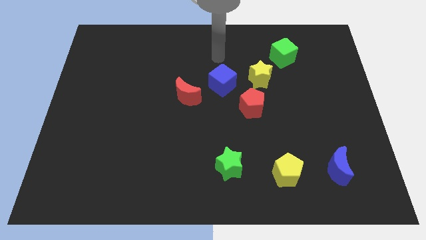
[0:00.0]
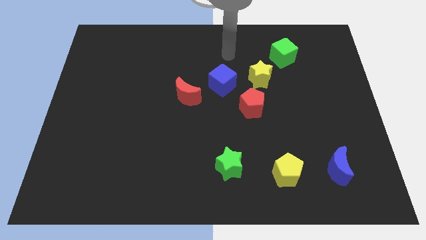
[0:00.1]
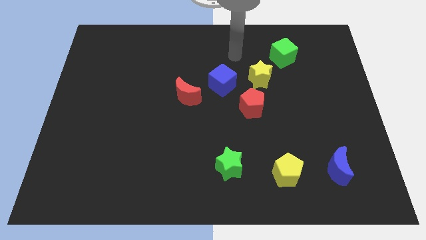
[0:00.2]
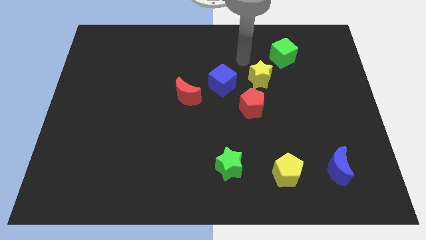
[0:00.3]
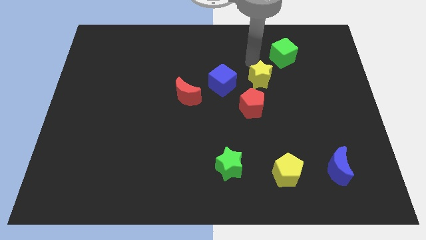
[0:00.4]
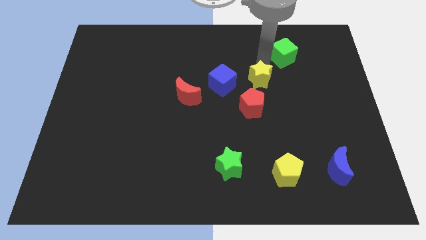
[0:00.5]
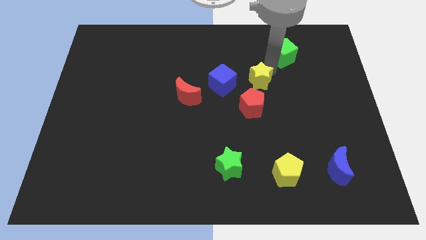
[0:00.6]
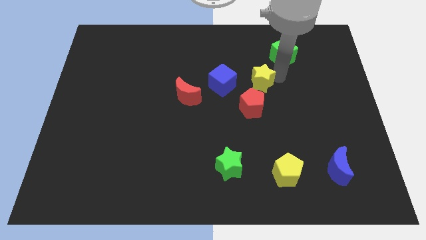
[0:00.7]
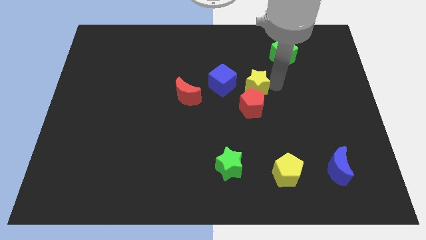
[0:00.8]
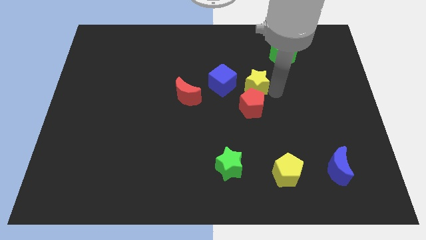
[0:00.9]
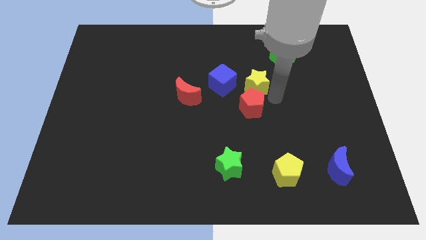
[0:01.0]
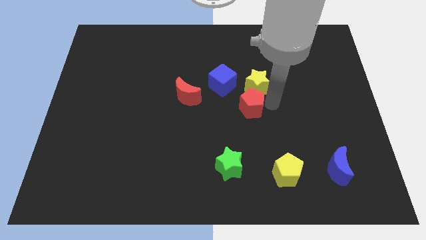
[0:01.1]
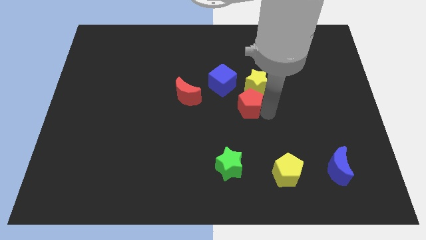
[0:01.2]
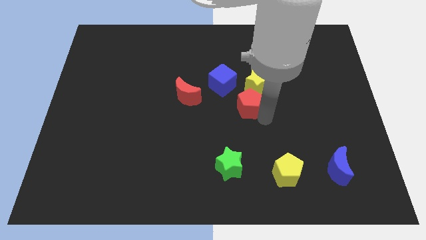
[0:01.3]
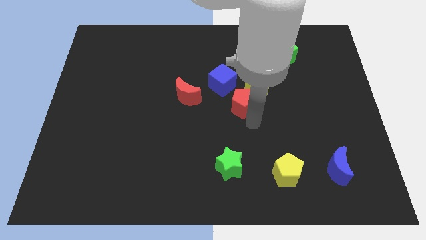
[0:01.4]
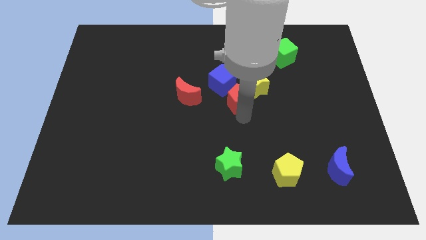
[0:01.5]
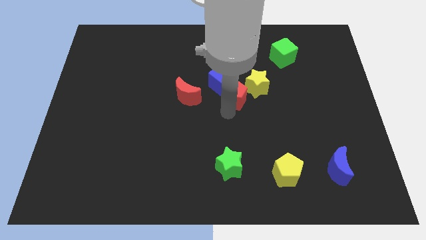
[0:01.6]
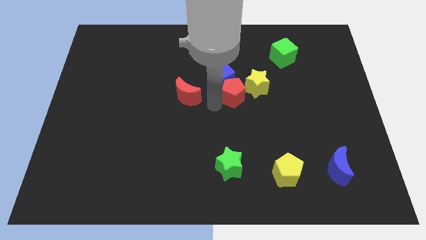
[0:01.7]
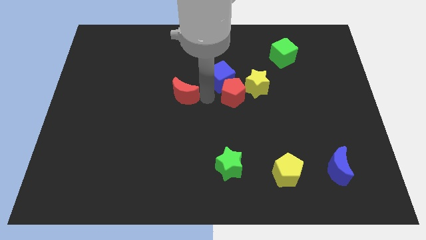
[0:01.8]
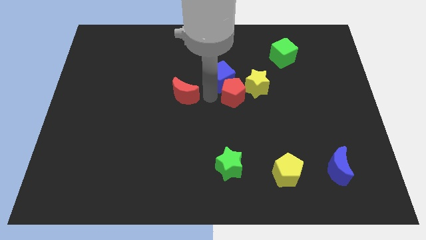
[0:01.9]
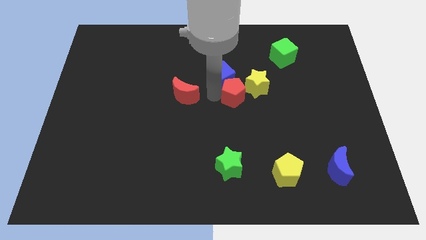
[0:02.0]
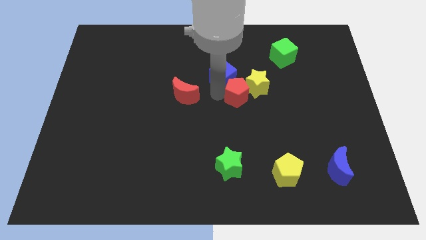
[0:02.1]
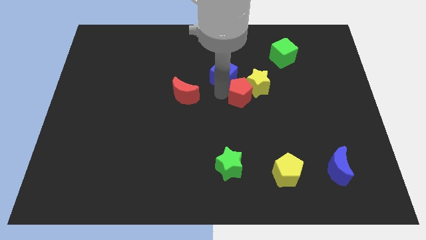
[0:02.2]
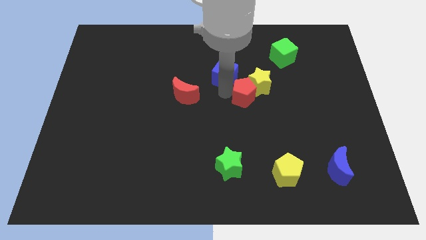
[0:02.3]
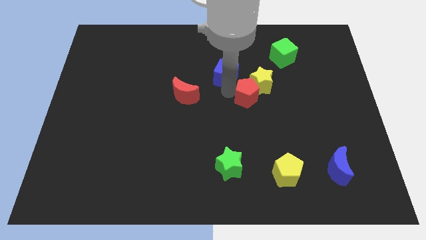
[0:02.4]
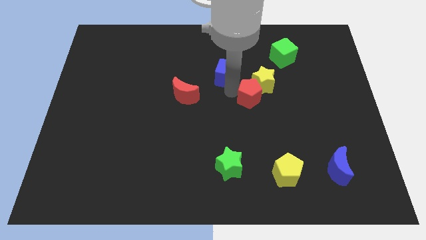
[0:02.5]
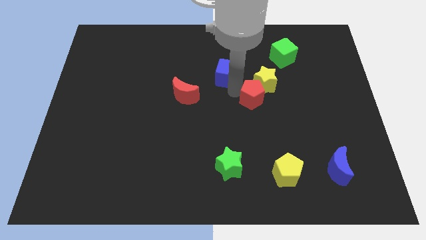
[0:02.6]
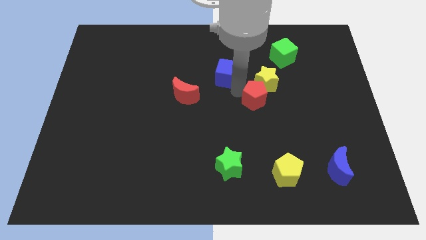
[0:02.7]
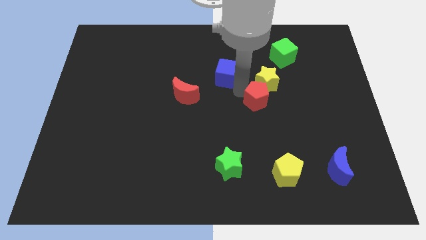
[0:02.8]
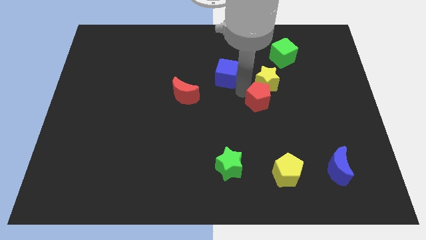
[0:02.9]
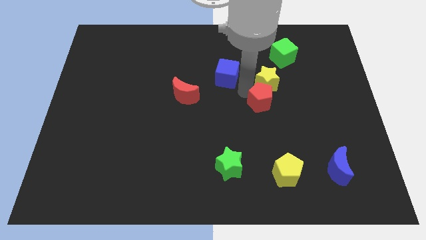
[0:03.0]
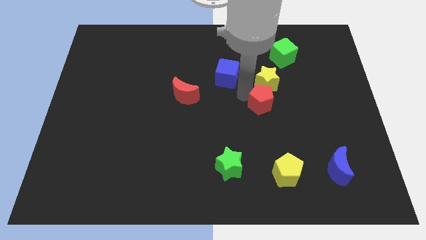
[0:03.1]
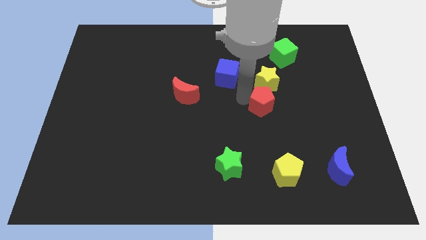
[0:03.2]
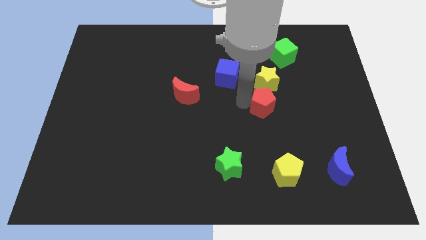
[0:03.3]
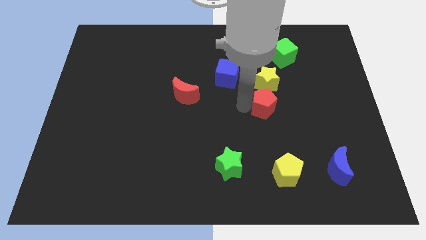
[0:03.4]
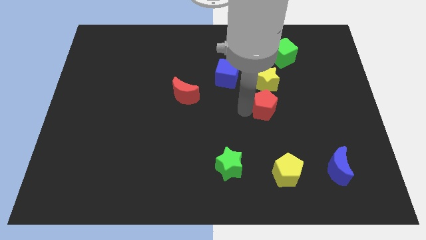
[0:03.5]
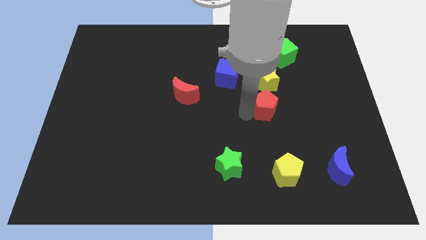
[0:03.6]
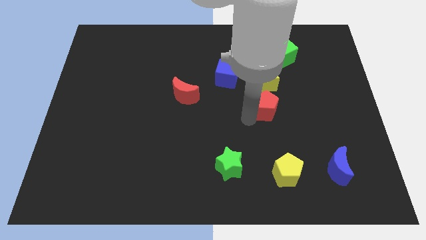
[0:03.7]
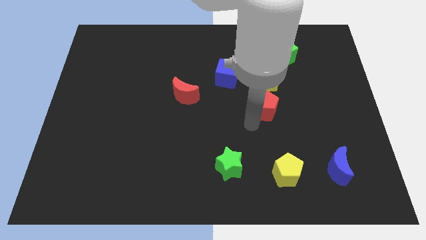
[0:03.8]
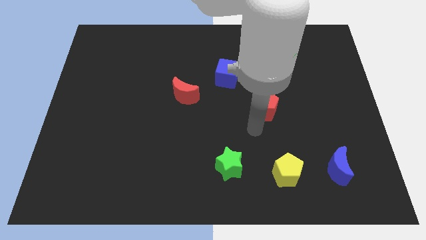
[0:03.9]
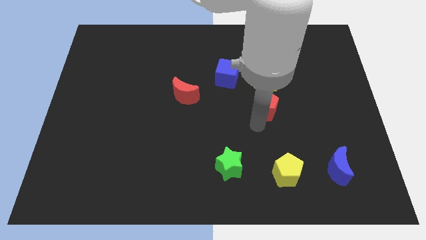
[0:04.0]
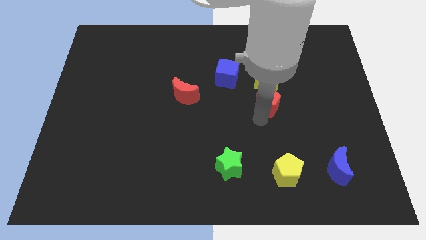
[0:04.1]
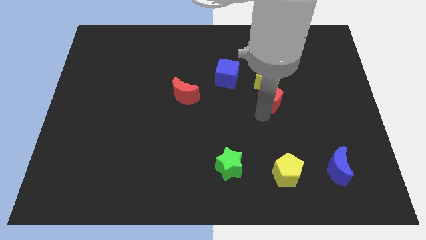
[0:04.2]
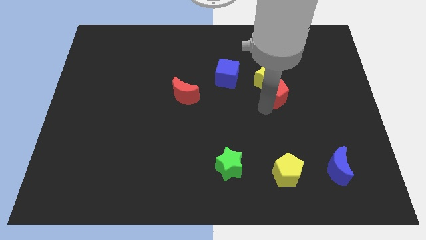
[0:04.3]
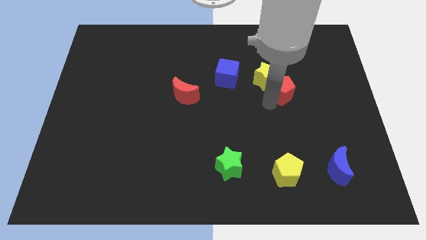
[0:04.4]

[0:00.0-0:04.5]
move the red pentagon up and to the right a bit

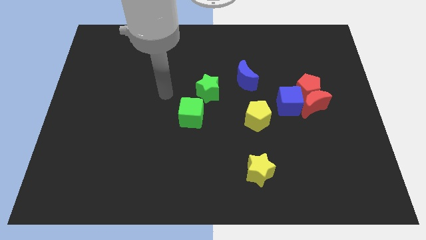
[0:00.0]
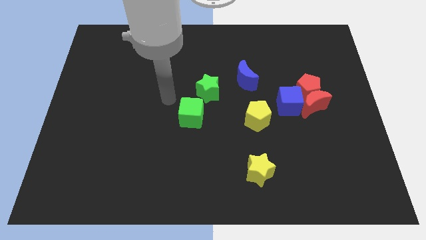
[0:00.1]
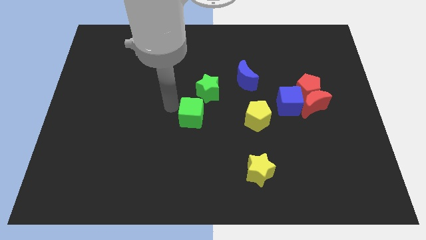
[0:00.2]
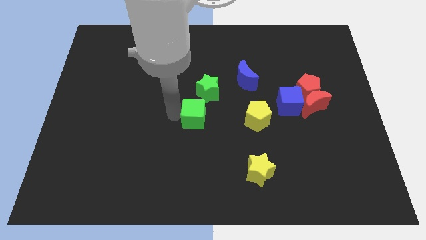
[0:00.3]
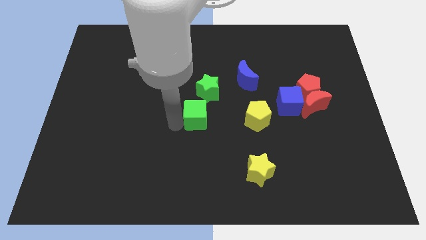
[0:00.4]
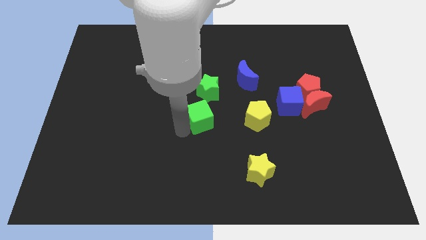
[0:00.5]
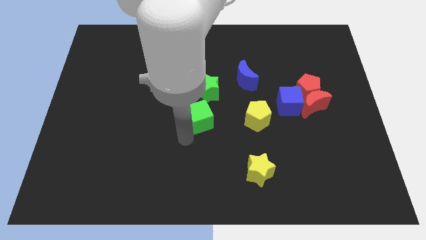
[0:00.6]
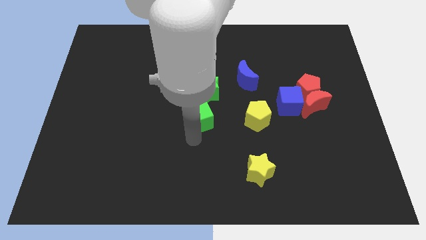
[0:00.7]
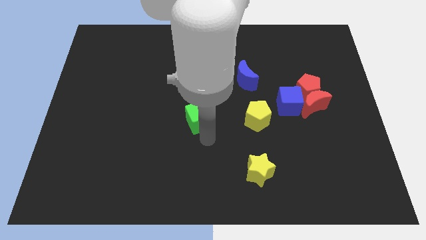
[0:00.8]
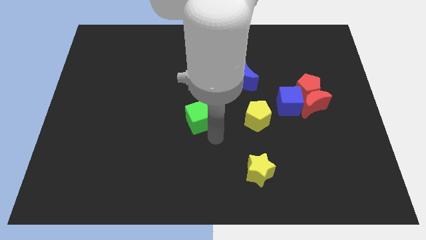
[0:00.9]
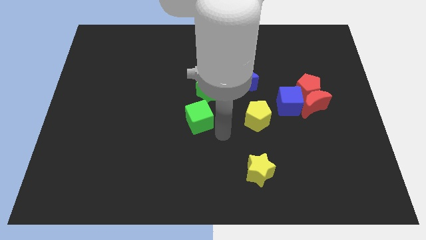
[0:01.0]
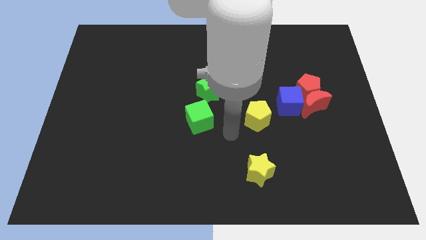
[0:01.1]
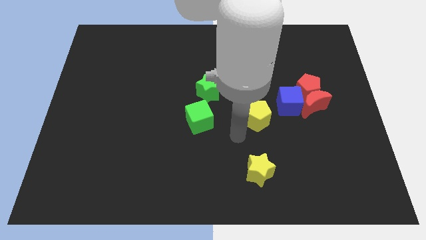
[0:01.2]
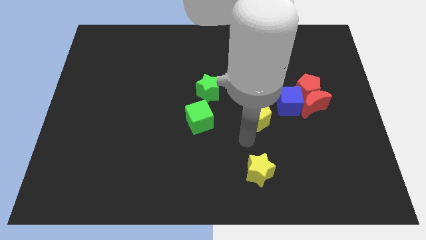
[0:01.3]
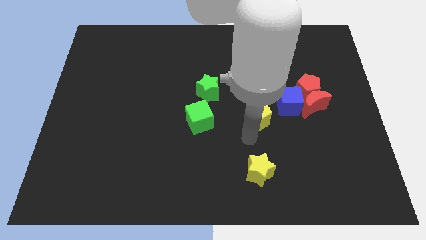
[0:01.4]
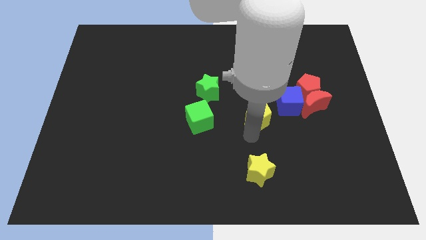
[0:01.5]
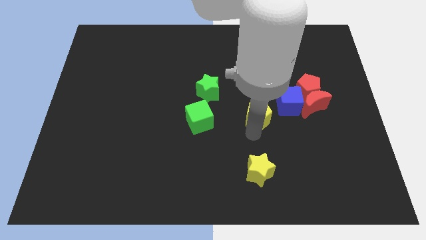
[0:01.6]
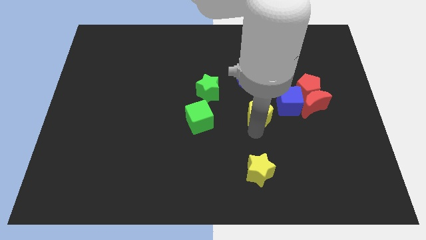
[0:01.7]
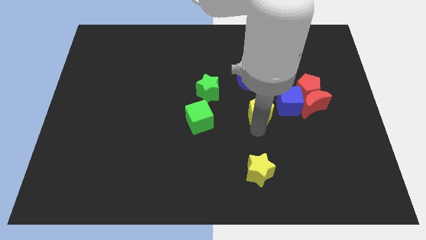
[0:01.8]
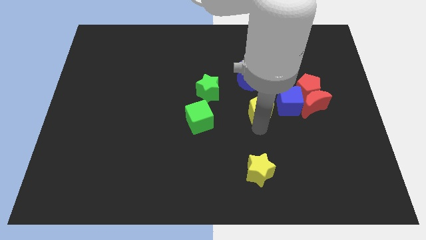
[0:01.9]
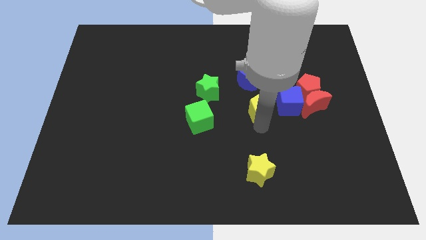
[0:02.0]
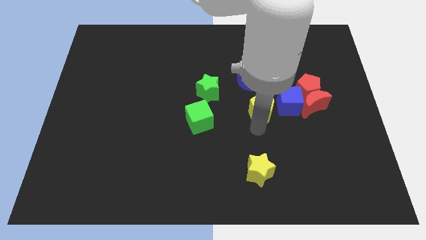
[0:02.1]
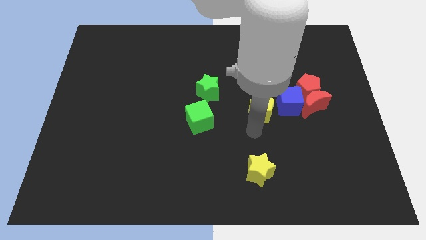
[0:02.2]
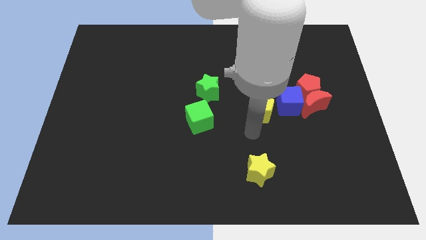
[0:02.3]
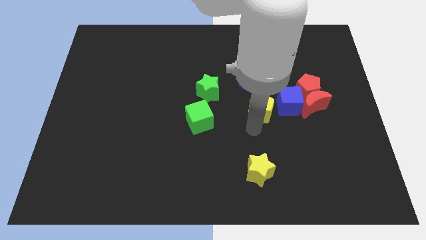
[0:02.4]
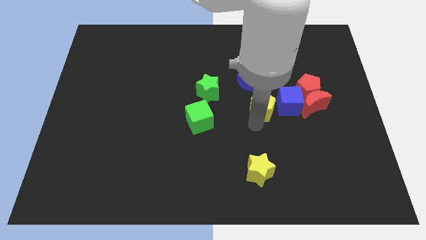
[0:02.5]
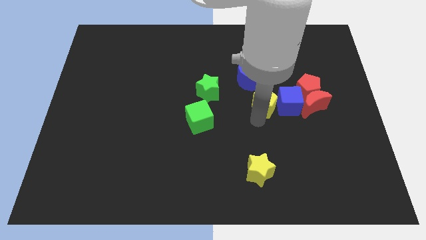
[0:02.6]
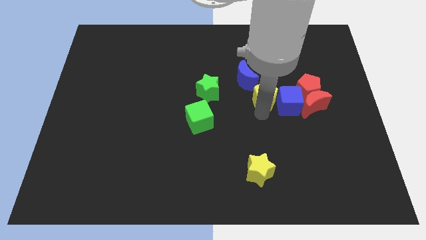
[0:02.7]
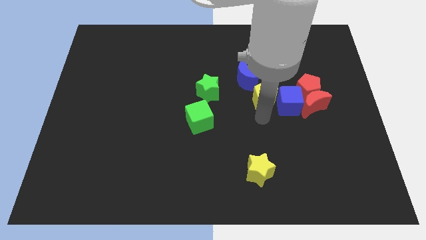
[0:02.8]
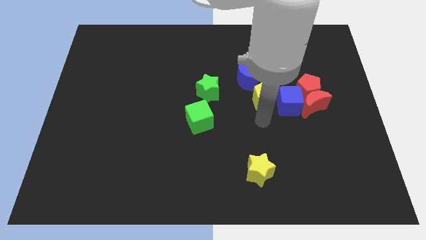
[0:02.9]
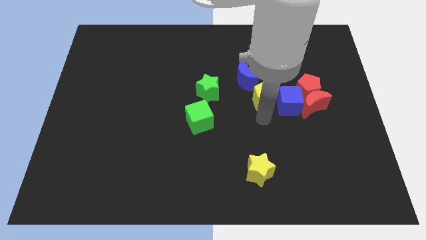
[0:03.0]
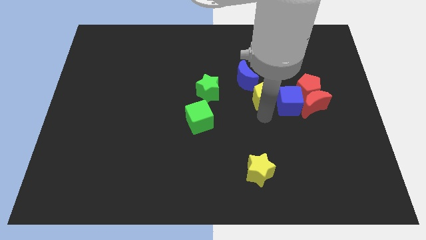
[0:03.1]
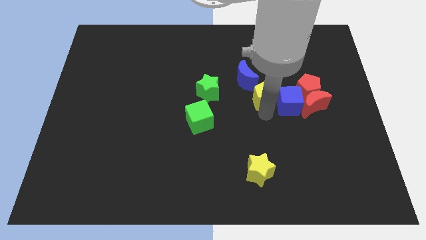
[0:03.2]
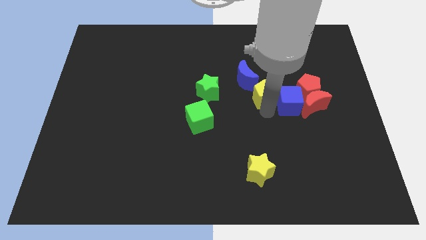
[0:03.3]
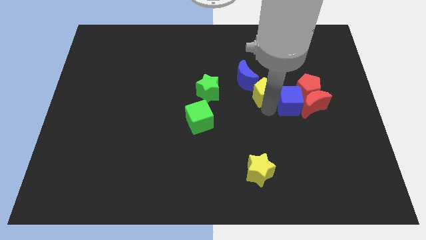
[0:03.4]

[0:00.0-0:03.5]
push the yellow pentagon a bit upwards
